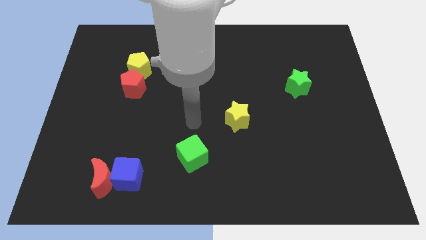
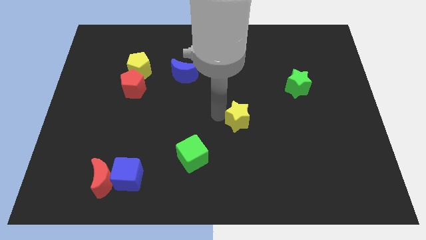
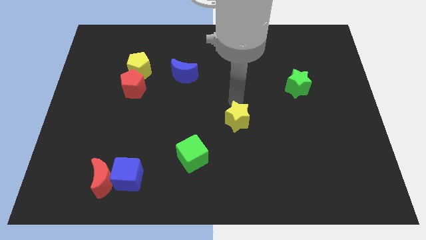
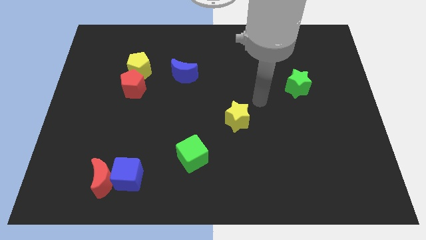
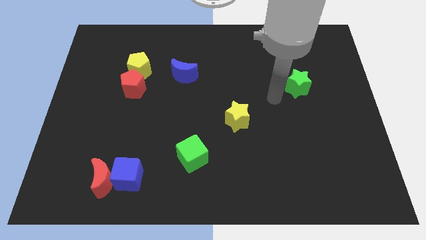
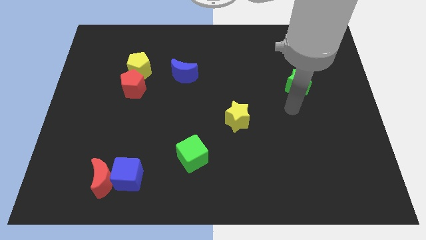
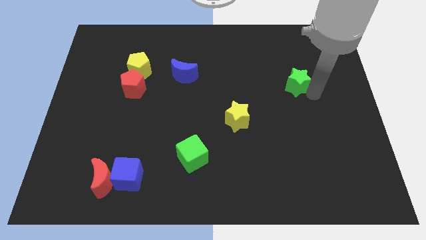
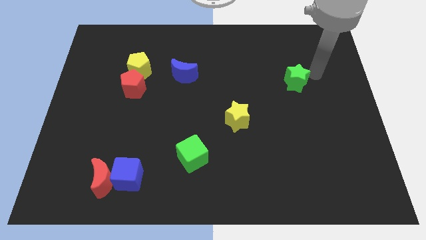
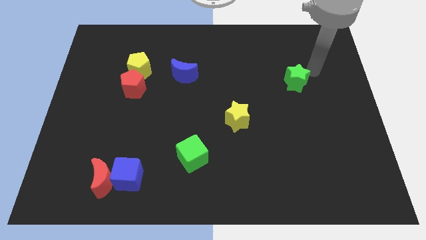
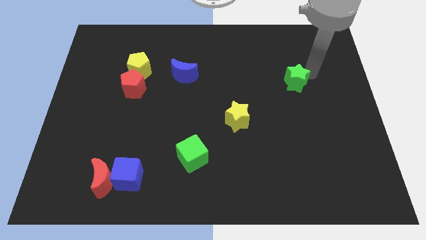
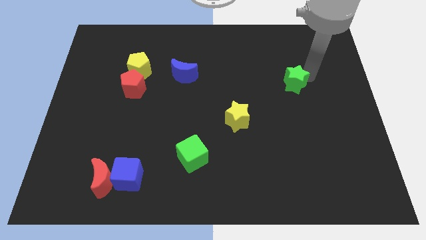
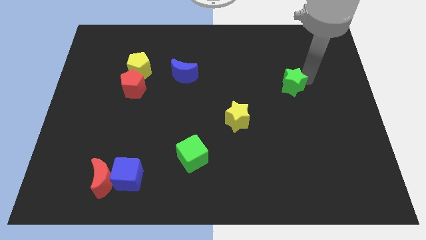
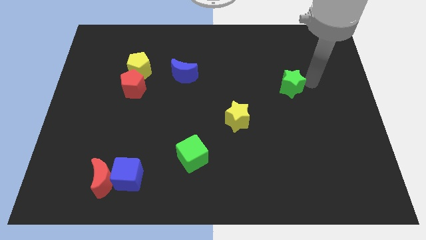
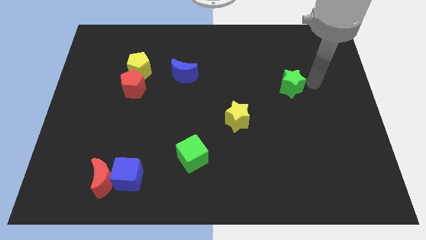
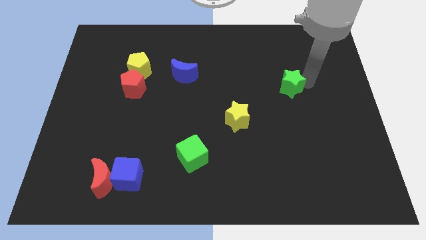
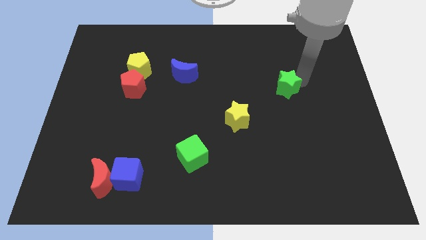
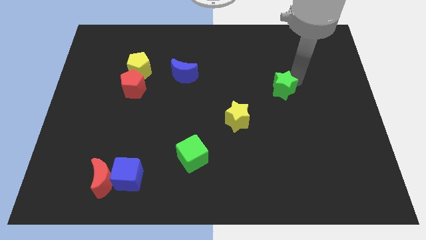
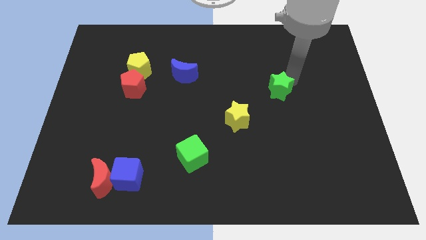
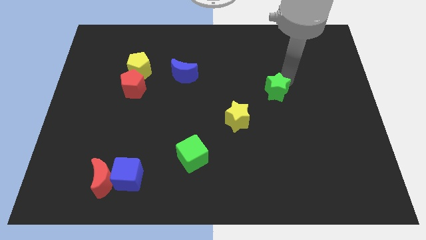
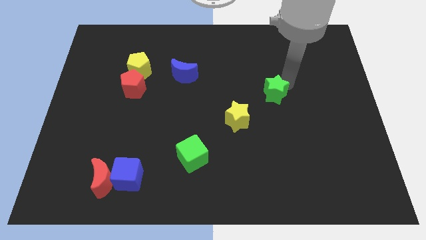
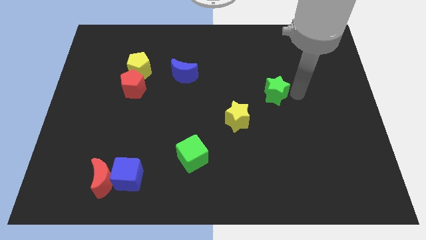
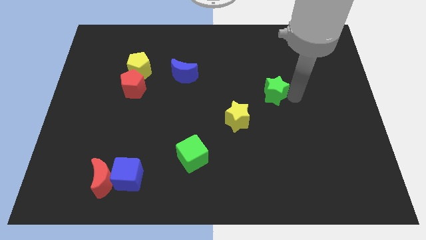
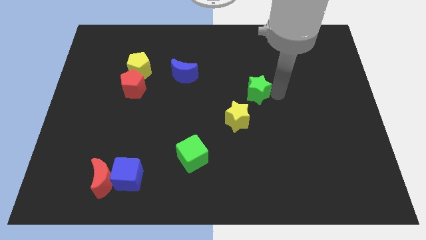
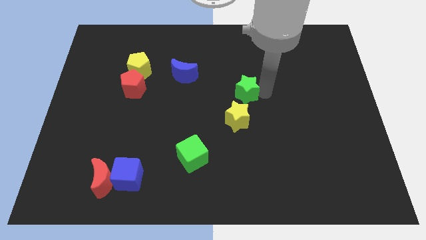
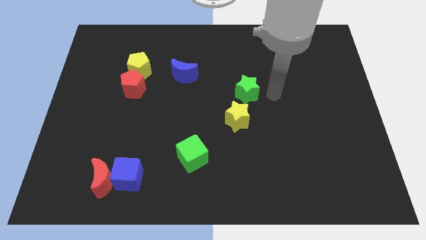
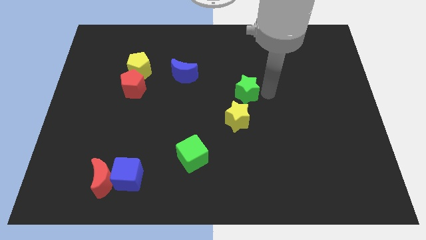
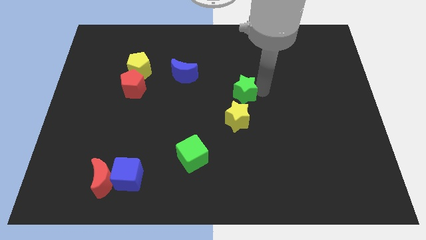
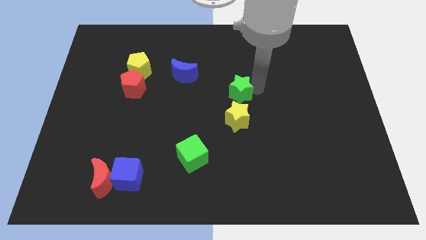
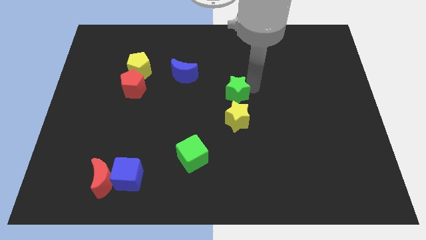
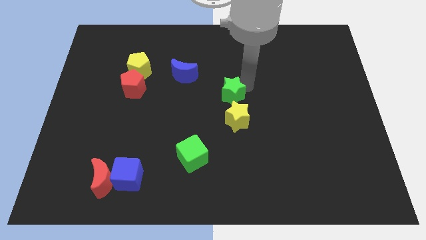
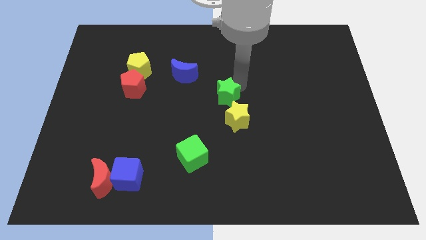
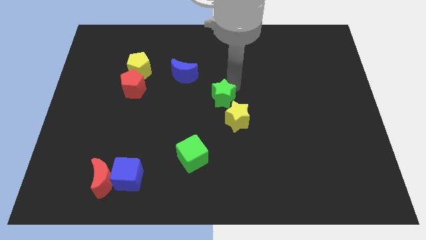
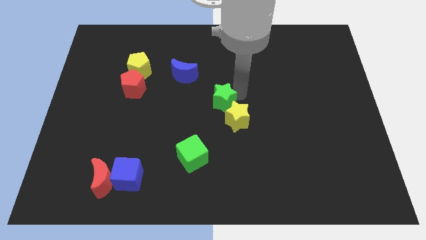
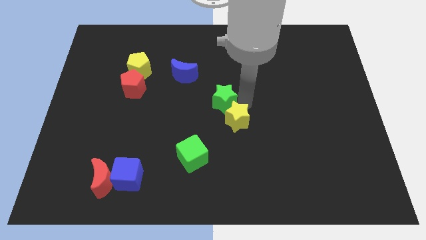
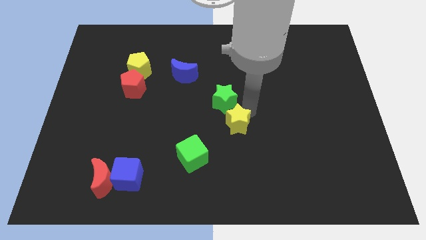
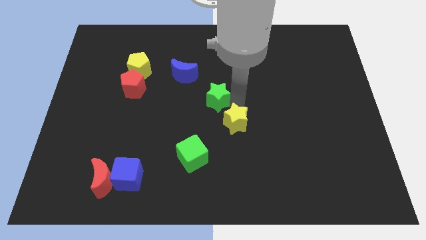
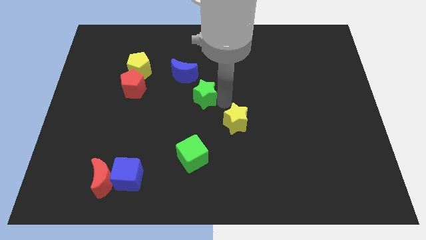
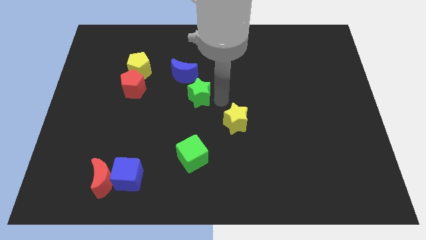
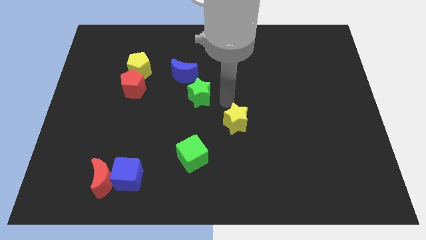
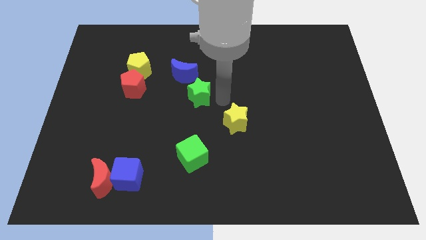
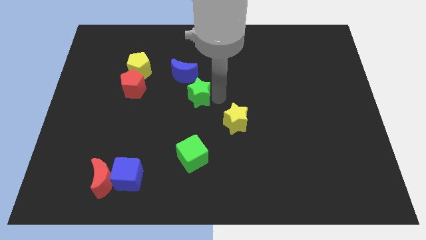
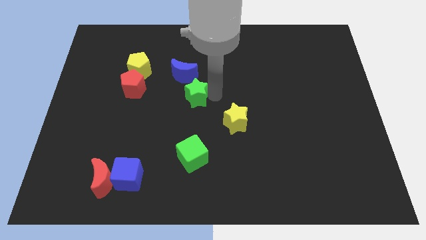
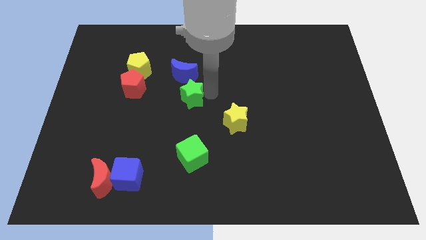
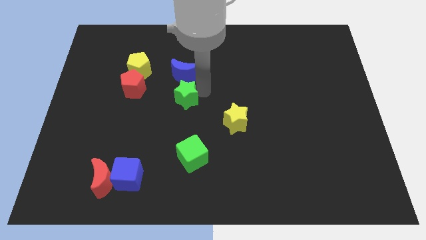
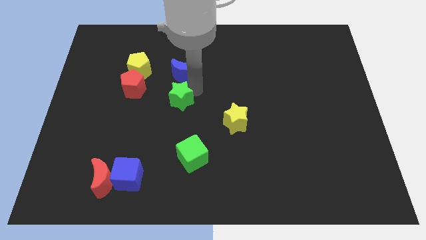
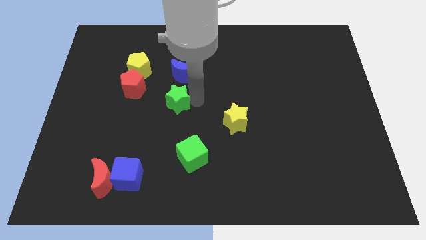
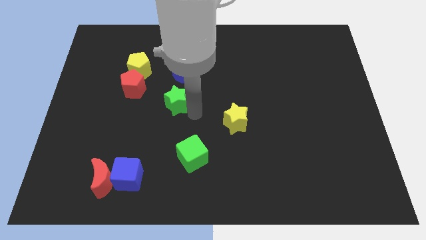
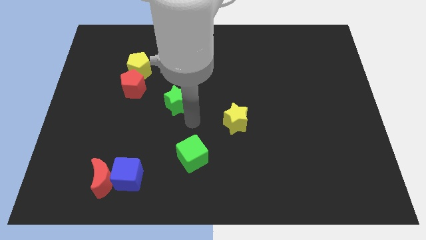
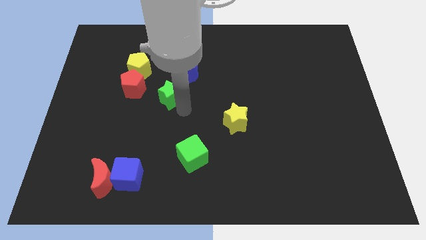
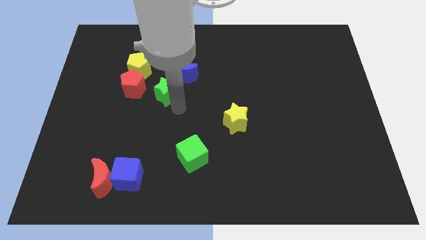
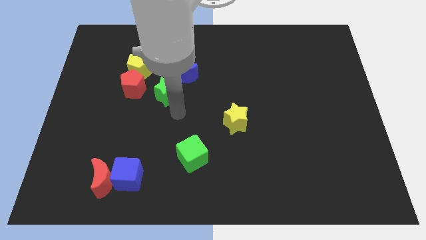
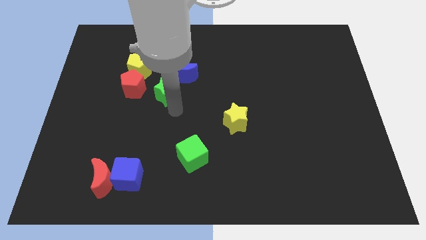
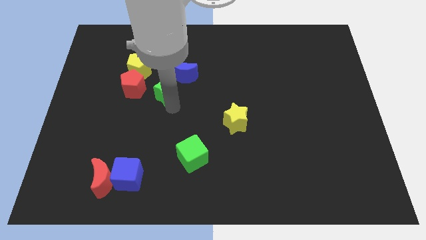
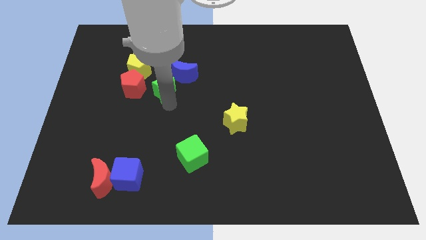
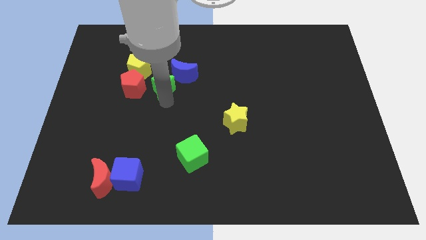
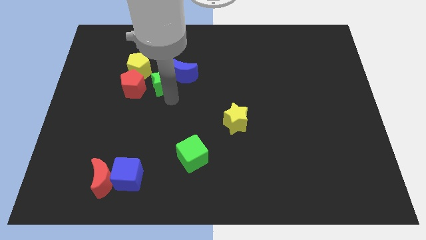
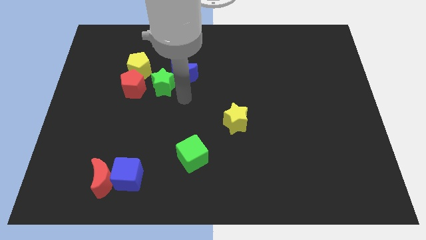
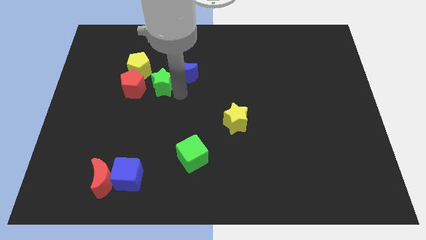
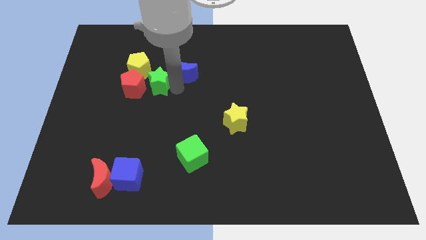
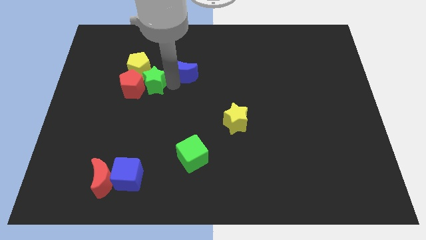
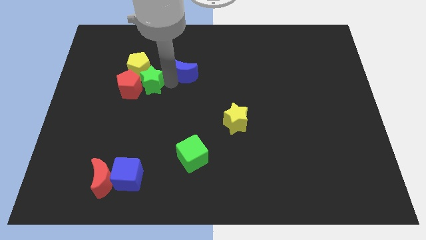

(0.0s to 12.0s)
push the green star close to the yellow pentagon

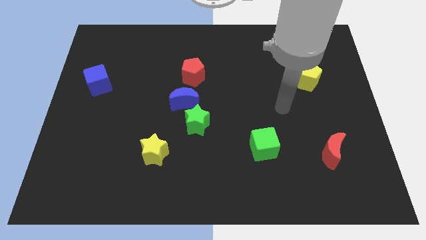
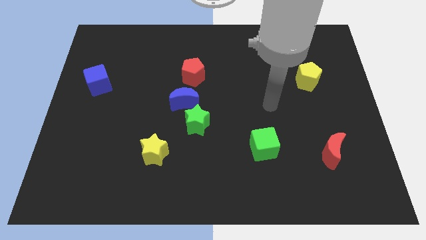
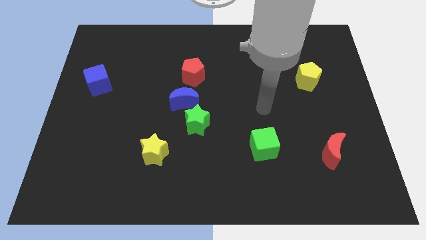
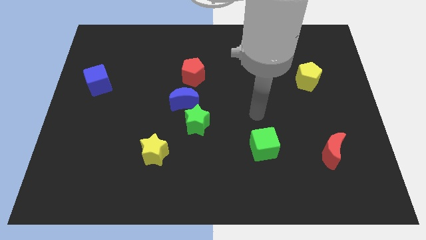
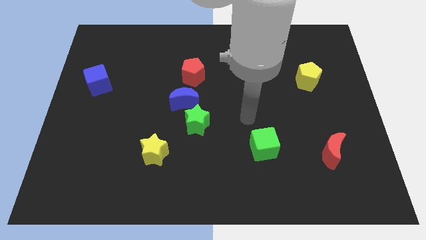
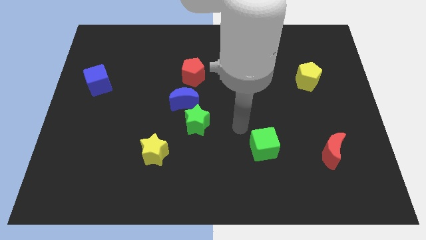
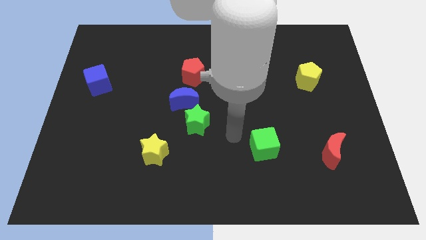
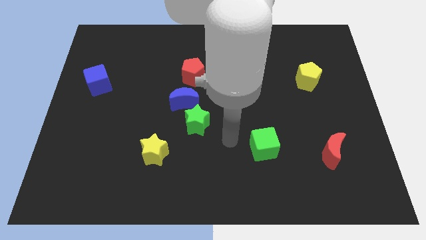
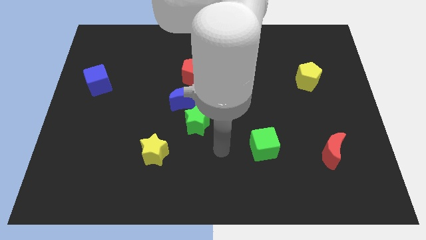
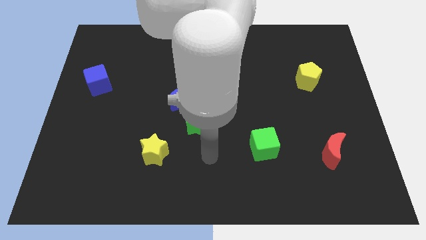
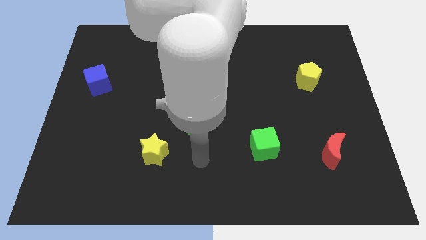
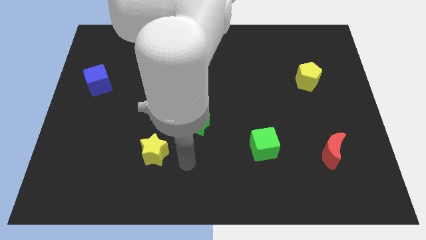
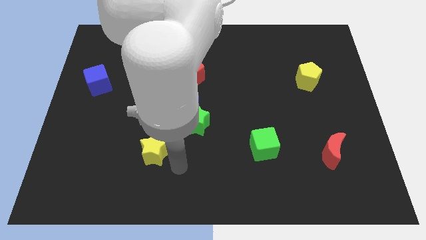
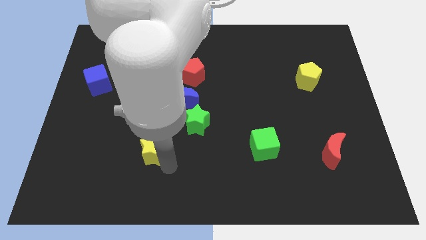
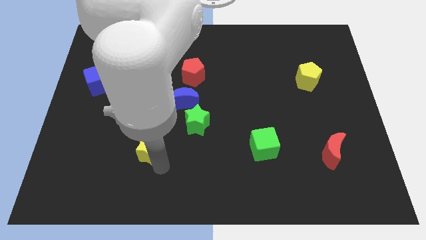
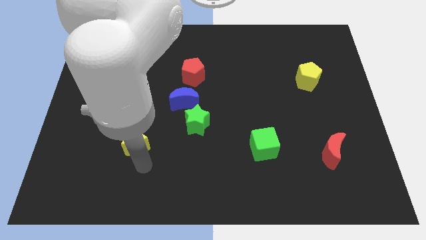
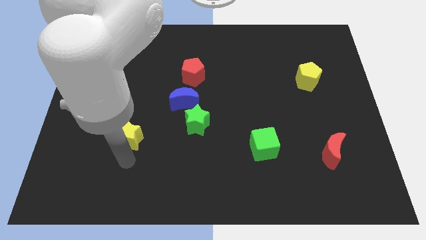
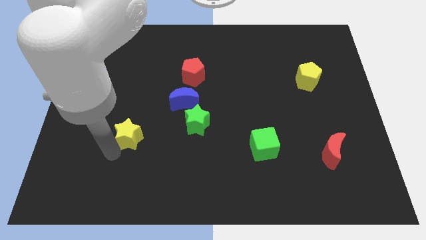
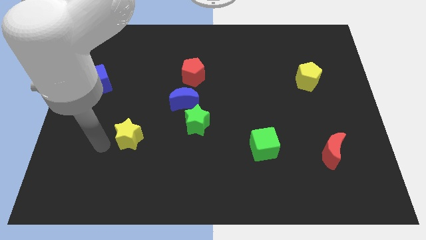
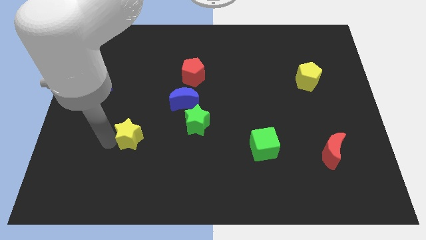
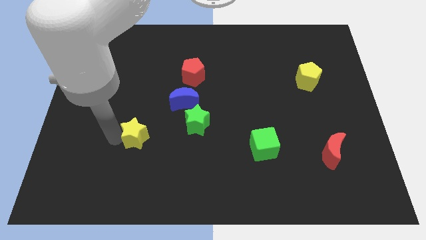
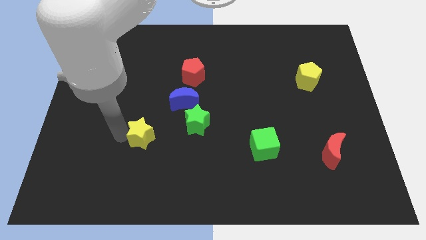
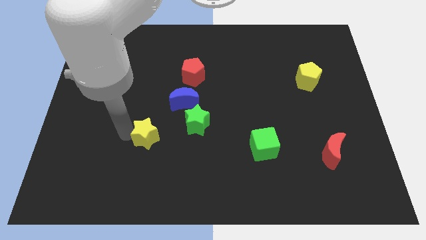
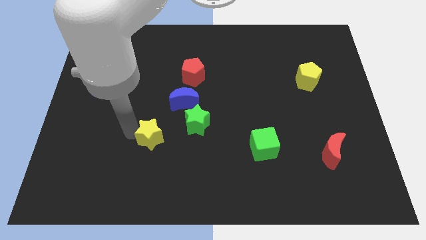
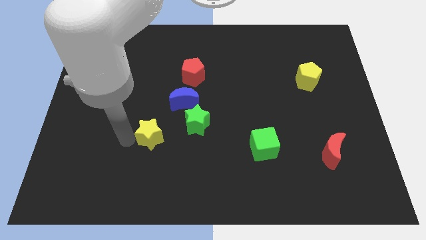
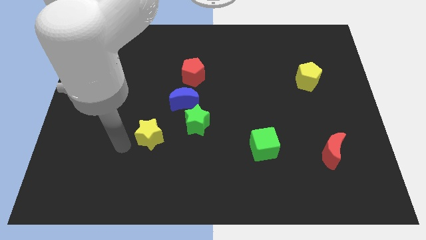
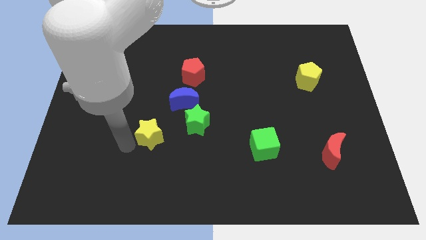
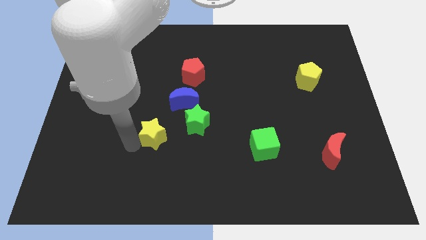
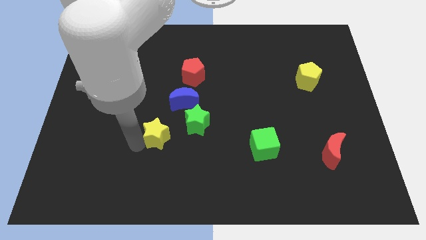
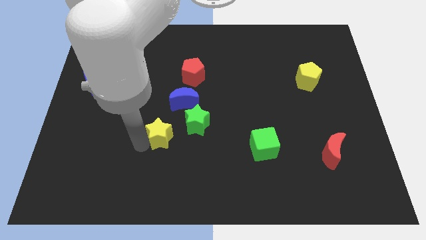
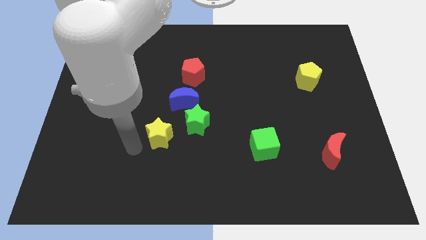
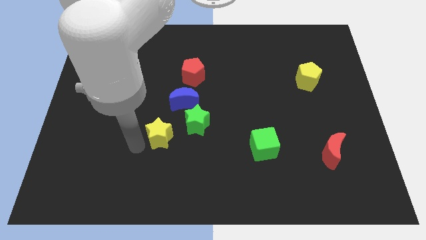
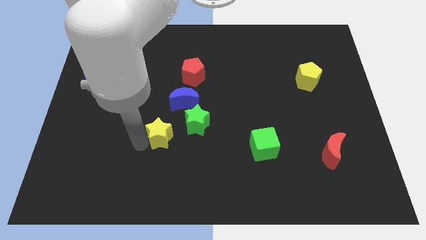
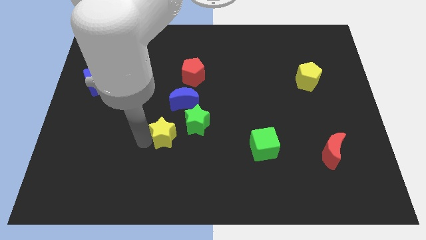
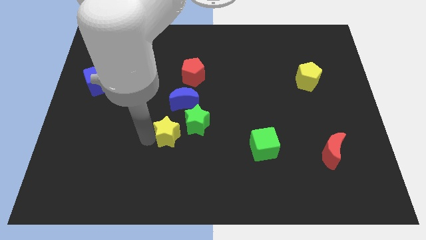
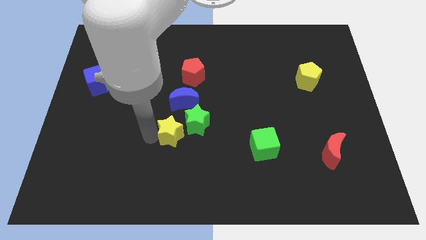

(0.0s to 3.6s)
put the yellow star to the green star
